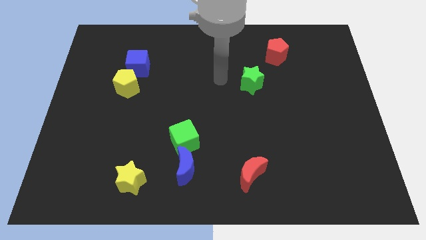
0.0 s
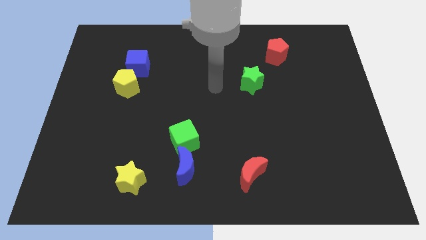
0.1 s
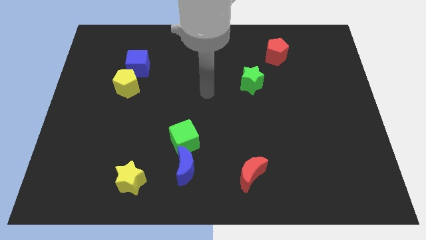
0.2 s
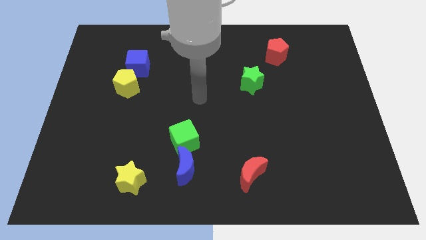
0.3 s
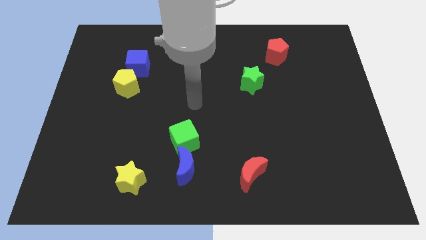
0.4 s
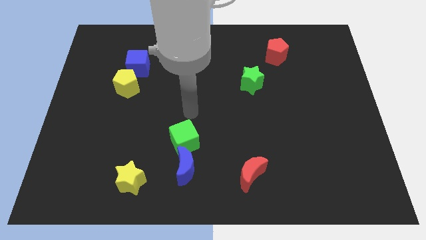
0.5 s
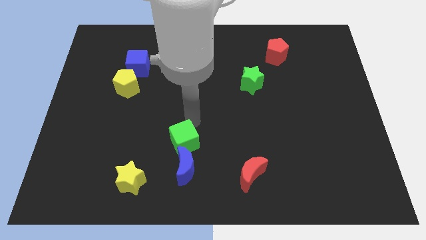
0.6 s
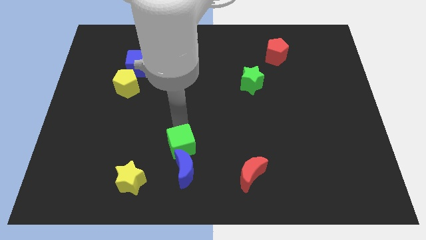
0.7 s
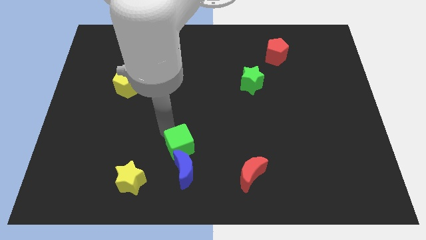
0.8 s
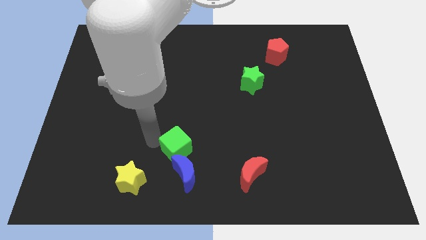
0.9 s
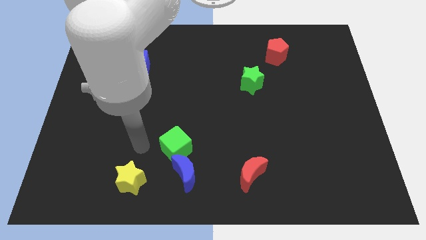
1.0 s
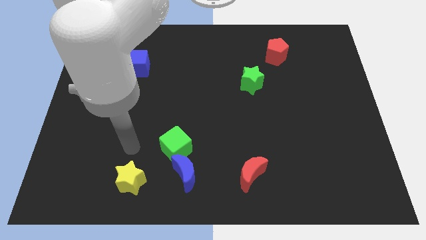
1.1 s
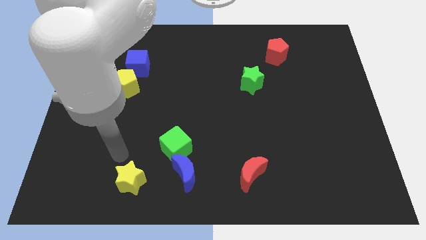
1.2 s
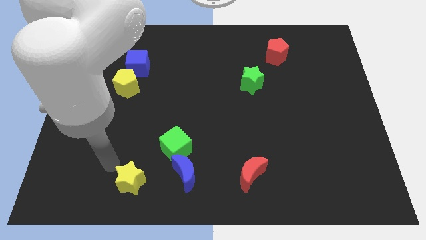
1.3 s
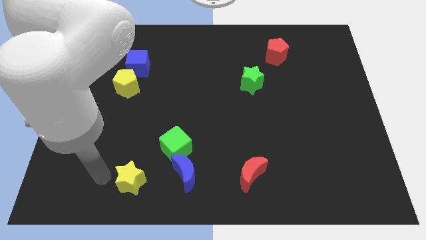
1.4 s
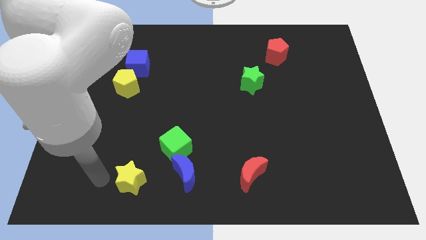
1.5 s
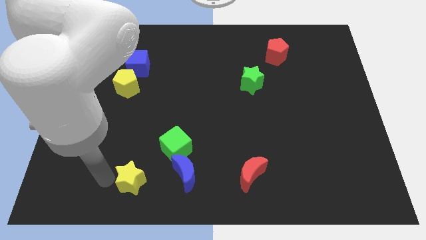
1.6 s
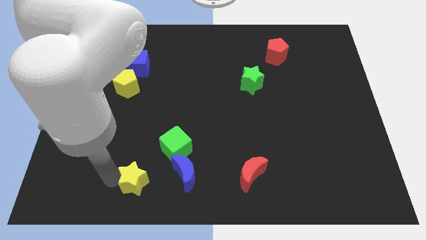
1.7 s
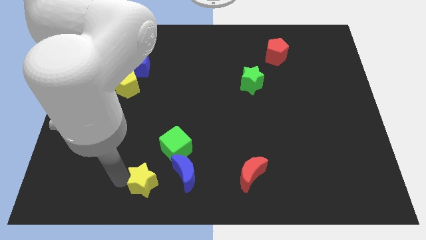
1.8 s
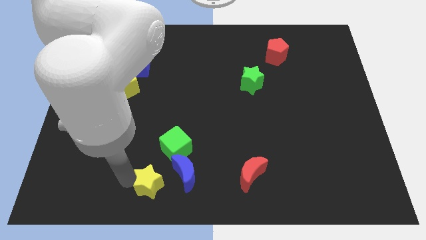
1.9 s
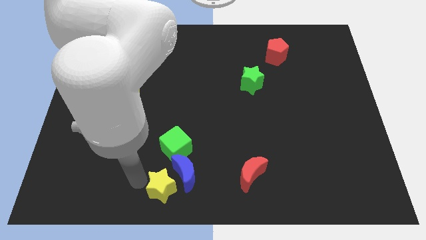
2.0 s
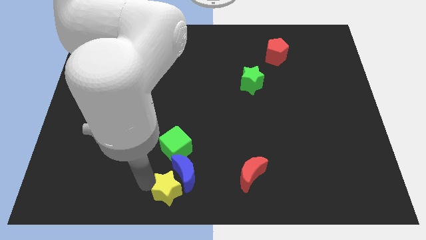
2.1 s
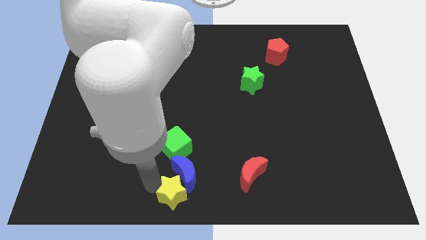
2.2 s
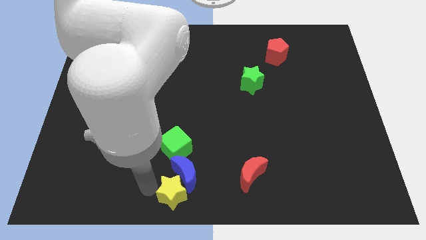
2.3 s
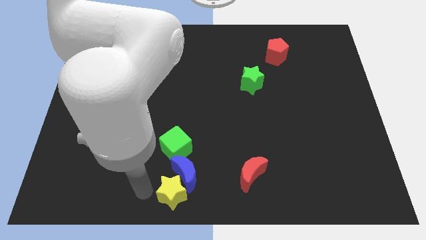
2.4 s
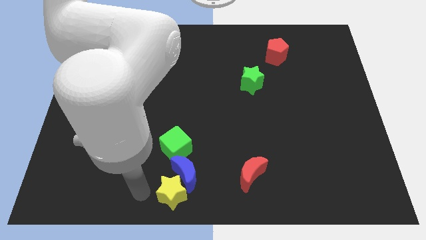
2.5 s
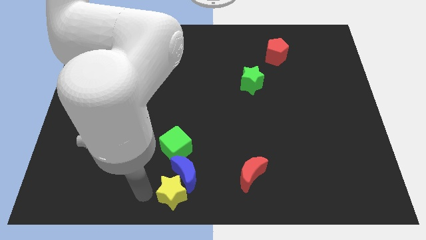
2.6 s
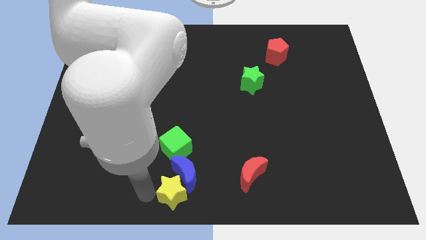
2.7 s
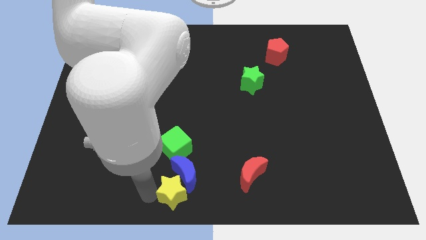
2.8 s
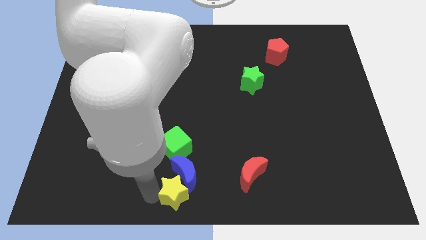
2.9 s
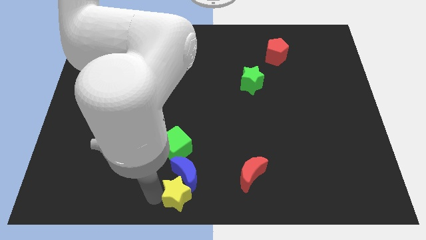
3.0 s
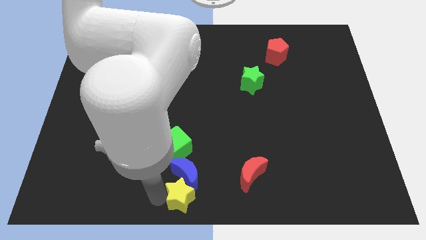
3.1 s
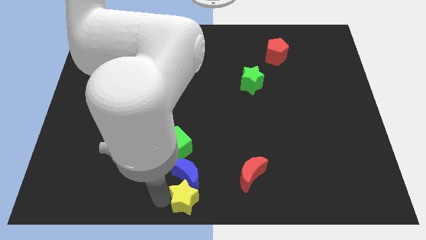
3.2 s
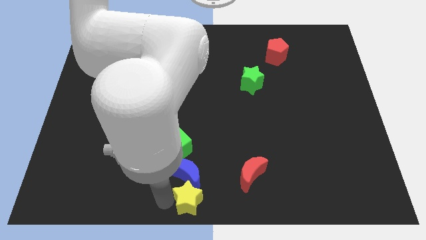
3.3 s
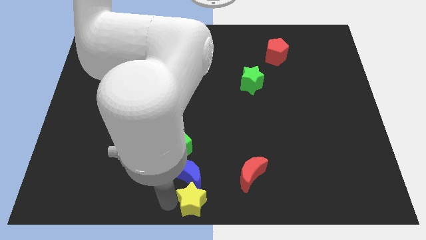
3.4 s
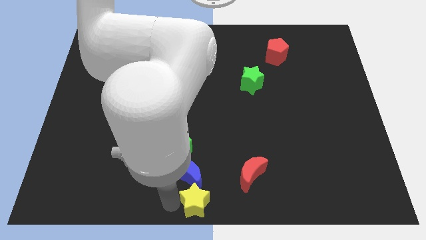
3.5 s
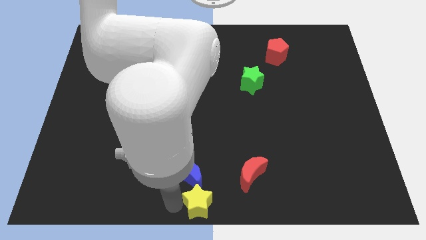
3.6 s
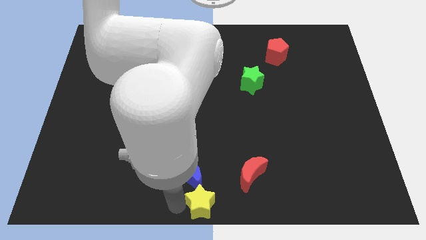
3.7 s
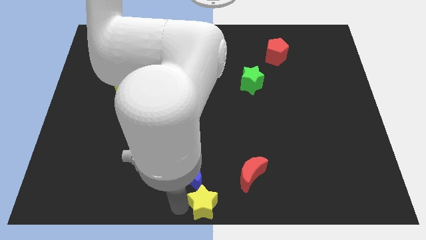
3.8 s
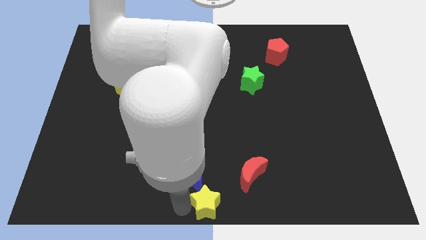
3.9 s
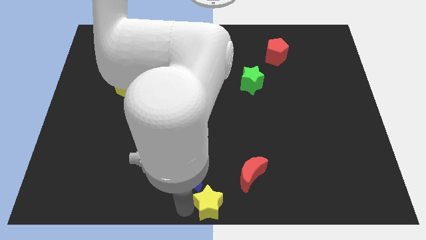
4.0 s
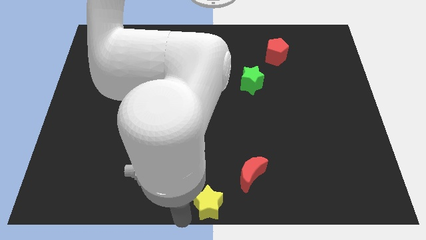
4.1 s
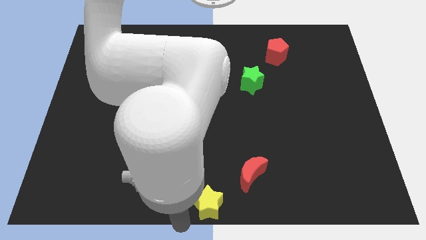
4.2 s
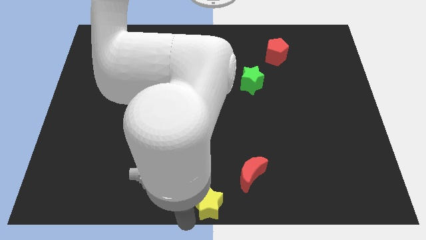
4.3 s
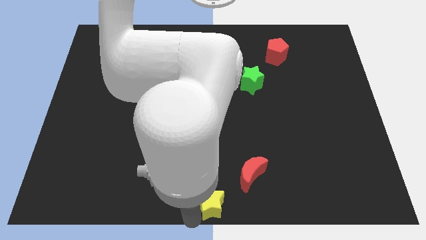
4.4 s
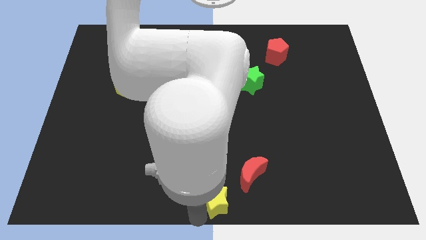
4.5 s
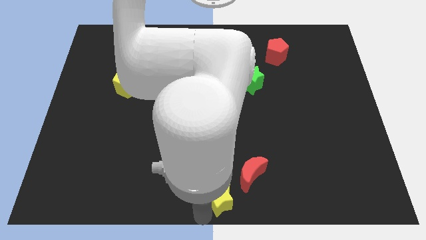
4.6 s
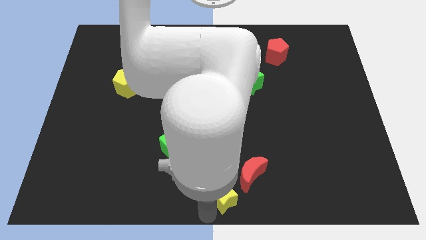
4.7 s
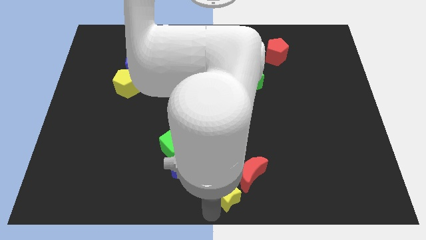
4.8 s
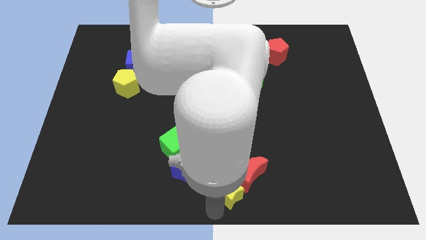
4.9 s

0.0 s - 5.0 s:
slide the yellow star towards the red moon

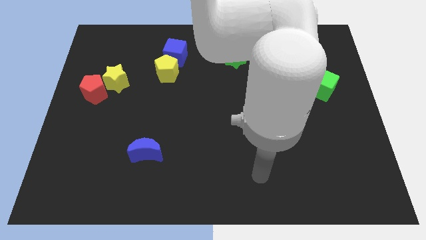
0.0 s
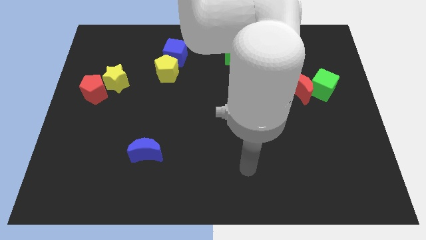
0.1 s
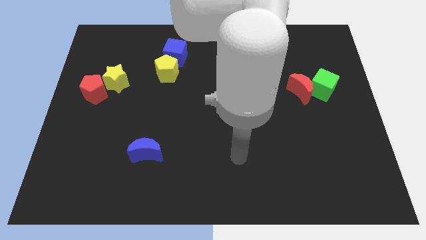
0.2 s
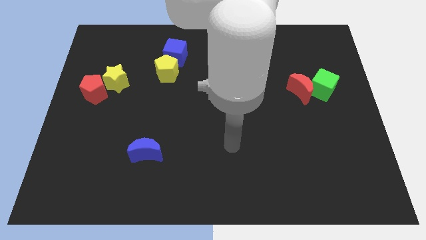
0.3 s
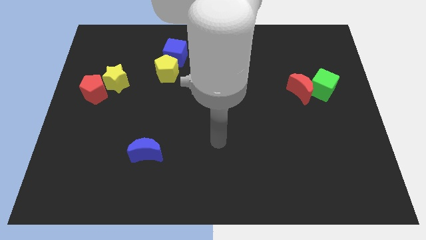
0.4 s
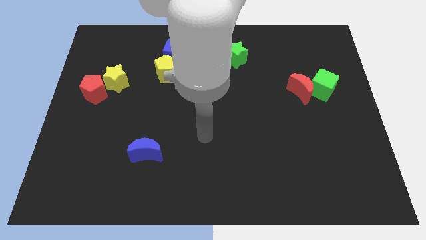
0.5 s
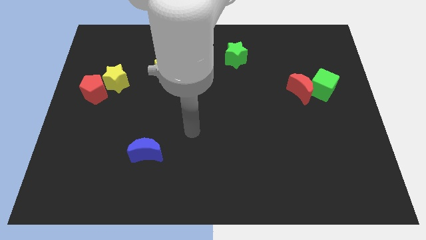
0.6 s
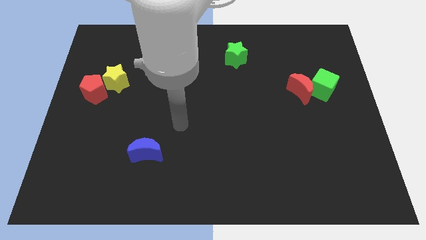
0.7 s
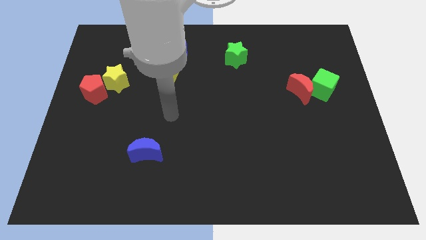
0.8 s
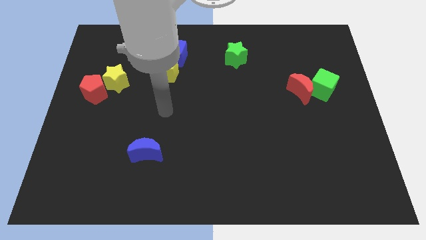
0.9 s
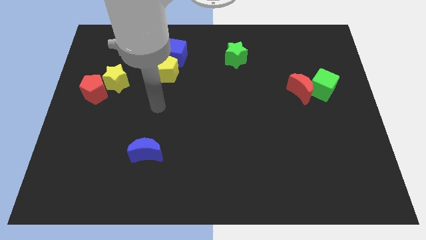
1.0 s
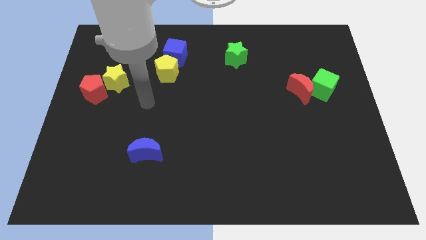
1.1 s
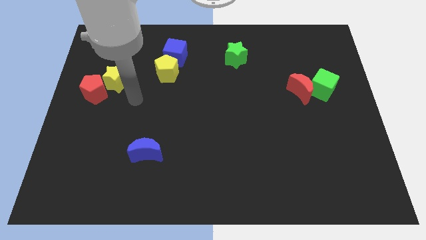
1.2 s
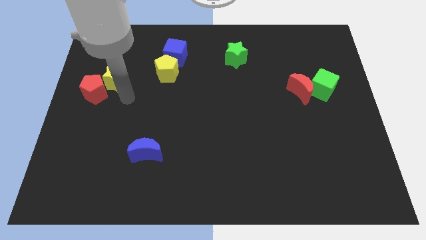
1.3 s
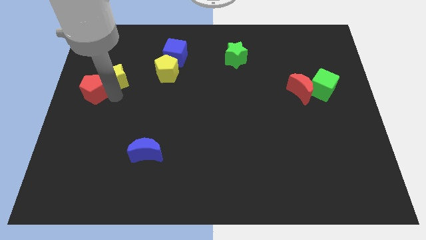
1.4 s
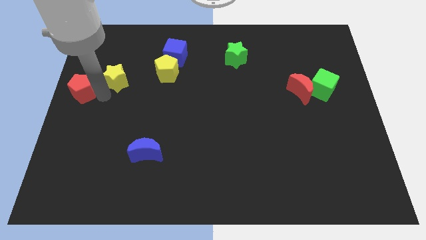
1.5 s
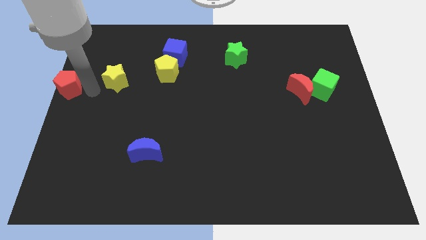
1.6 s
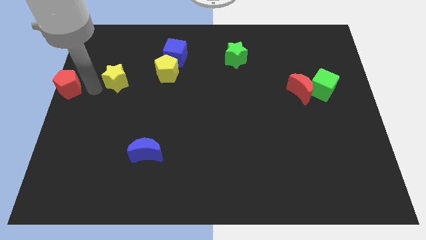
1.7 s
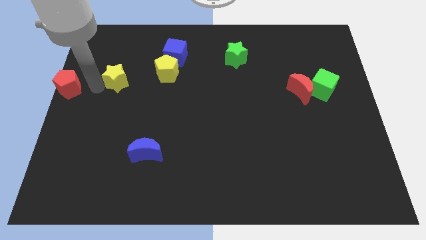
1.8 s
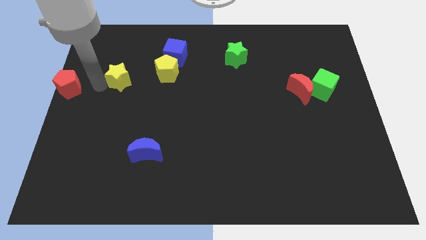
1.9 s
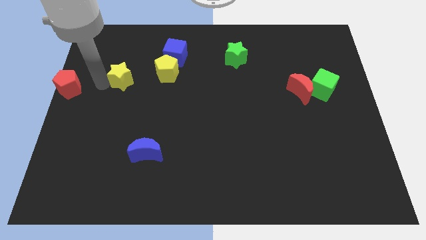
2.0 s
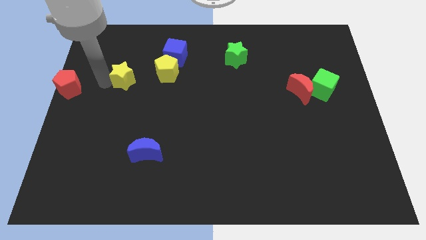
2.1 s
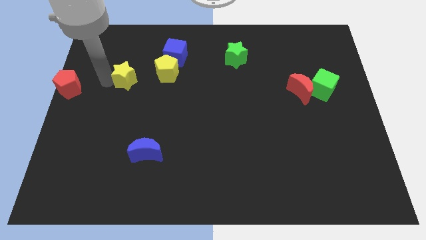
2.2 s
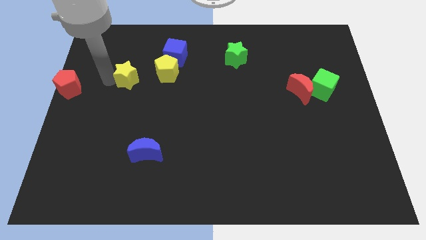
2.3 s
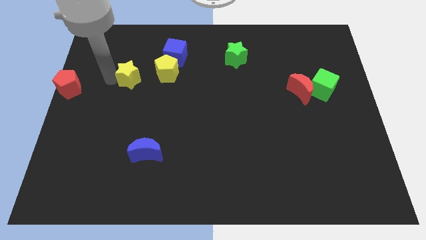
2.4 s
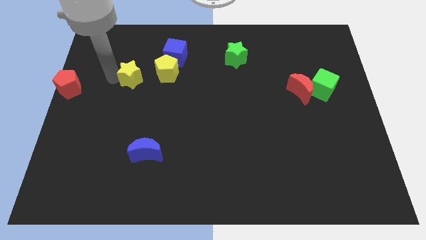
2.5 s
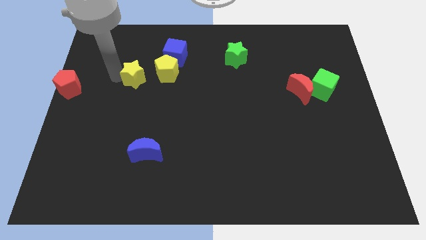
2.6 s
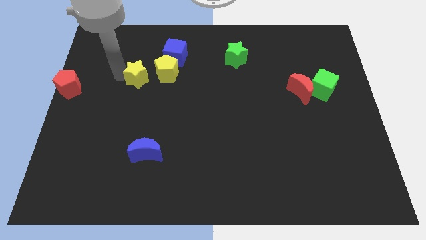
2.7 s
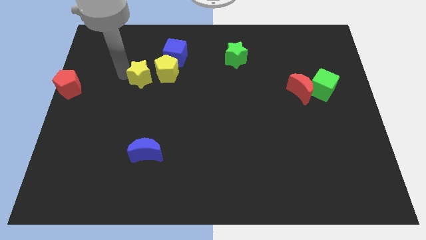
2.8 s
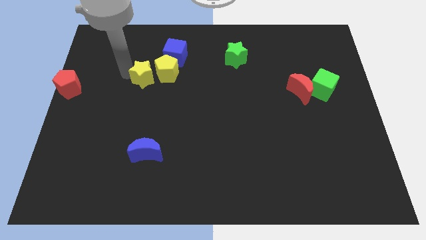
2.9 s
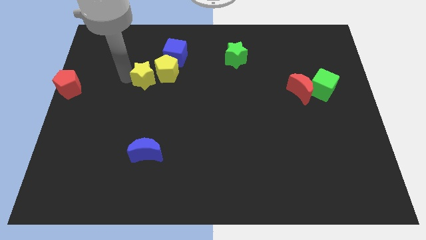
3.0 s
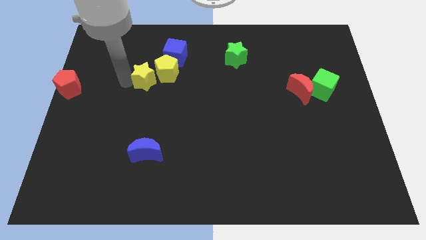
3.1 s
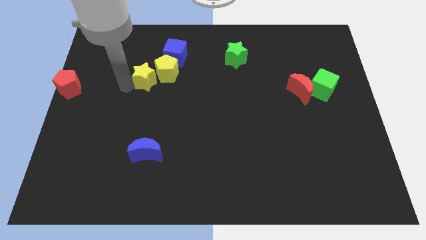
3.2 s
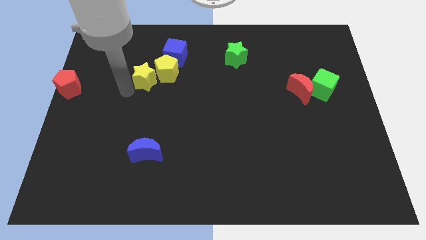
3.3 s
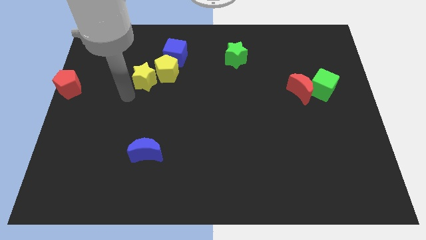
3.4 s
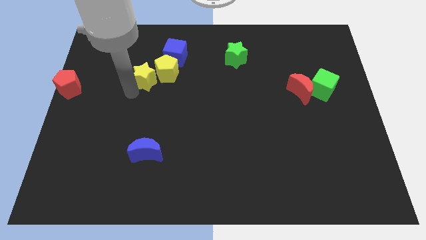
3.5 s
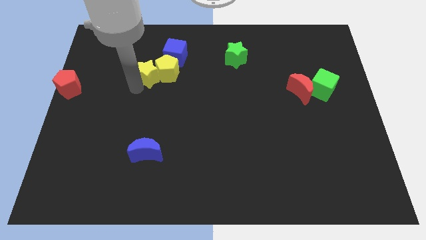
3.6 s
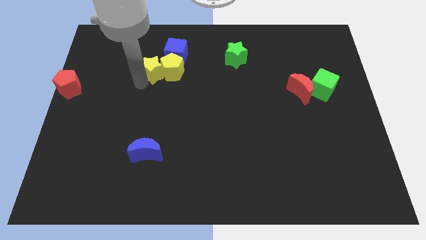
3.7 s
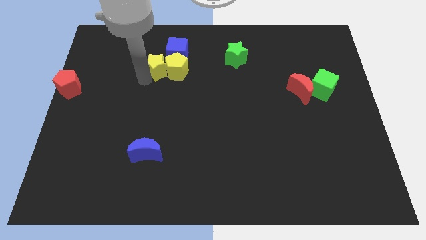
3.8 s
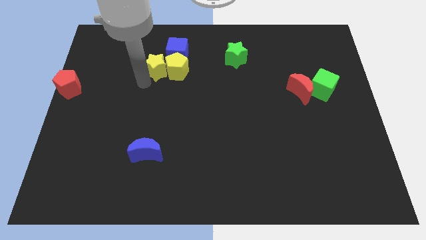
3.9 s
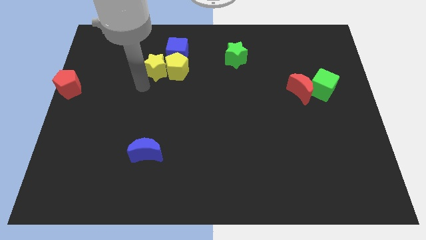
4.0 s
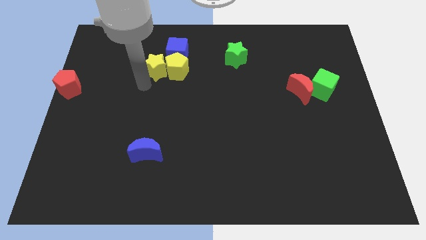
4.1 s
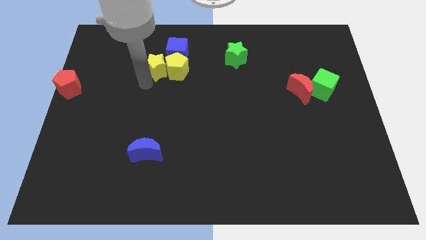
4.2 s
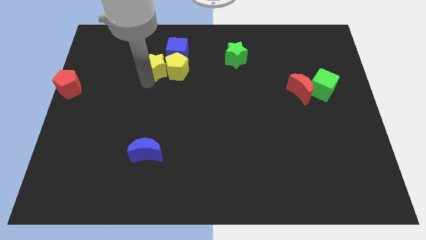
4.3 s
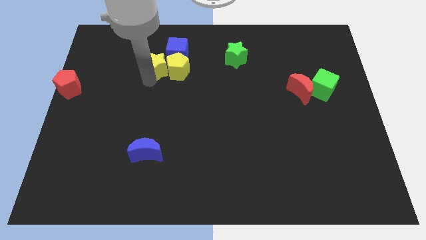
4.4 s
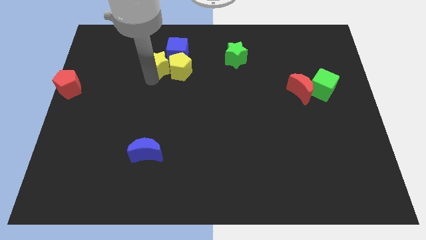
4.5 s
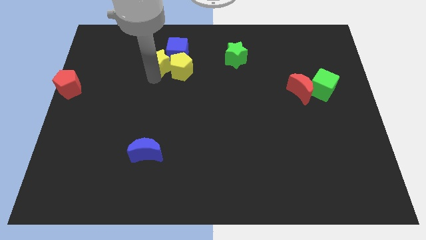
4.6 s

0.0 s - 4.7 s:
move the yellow star towards the blue cube
